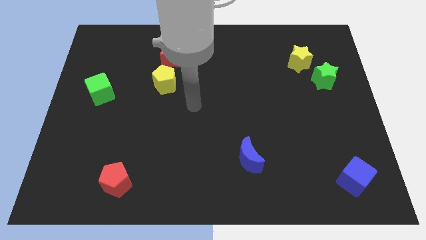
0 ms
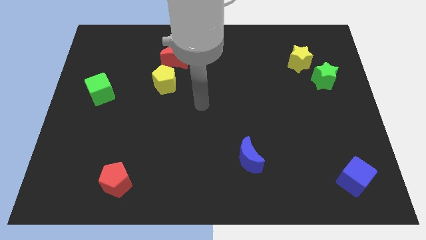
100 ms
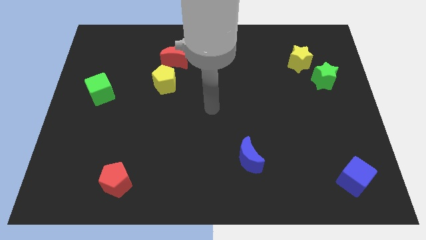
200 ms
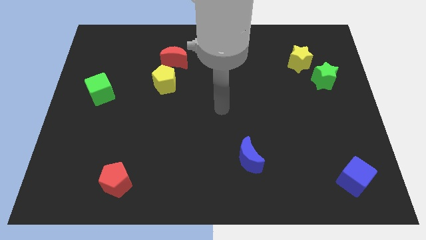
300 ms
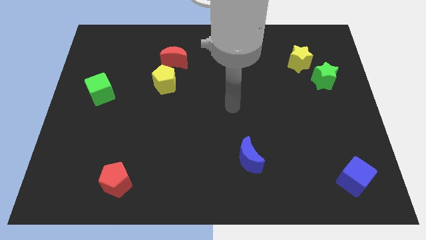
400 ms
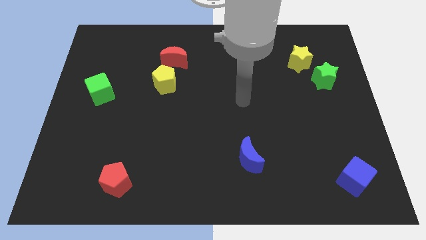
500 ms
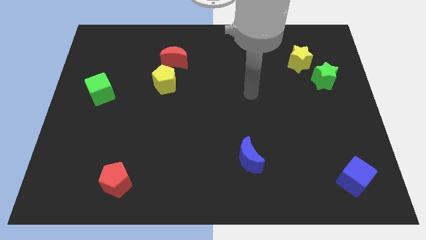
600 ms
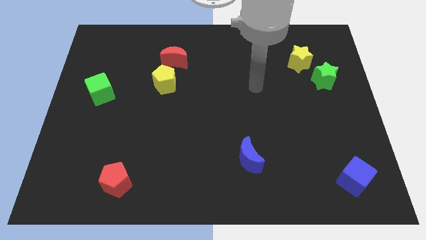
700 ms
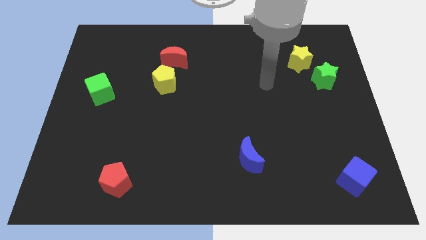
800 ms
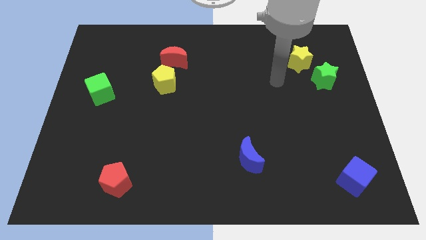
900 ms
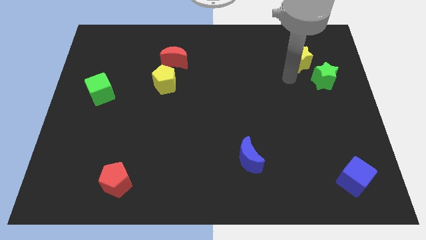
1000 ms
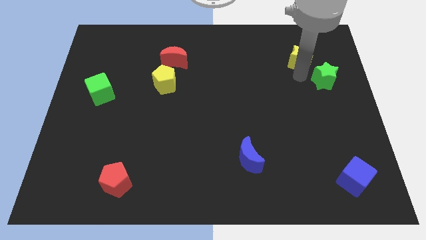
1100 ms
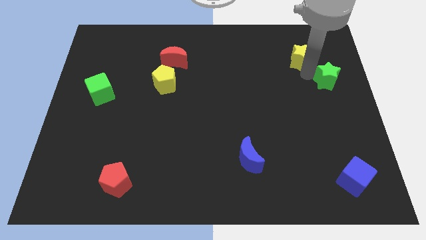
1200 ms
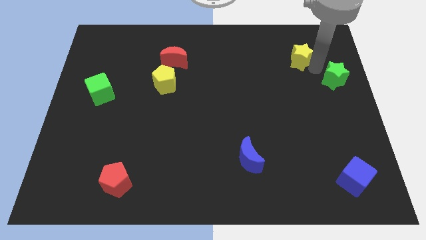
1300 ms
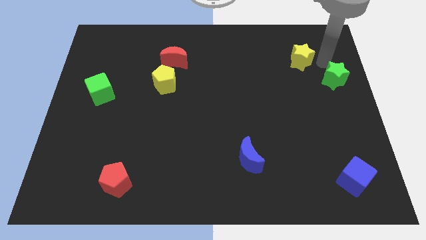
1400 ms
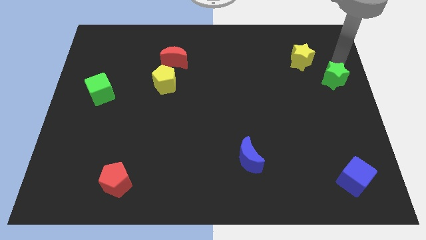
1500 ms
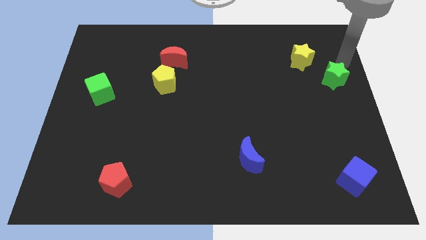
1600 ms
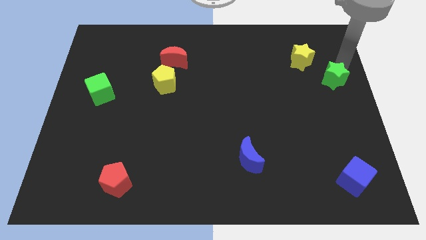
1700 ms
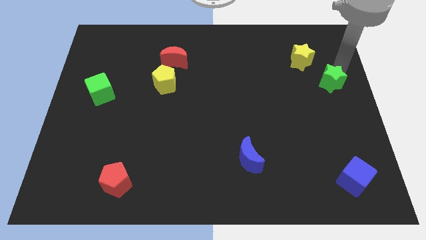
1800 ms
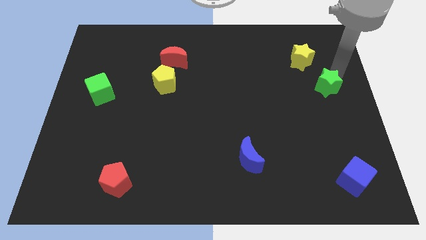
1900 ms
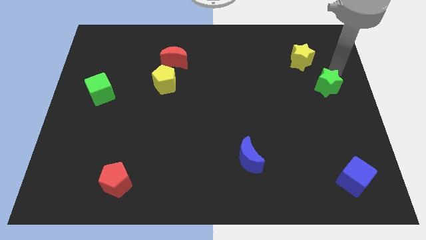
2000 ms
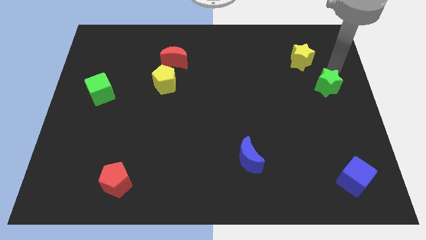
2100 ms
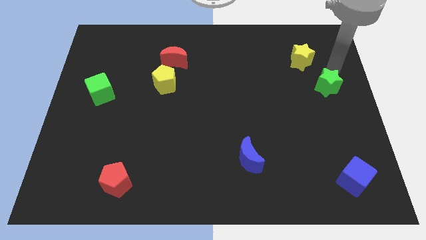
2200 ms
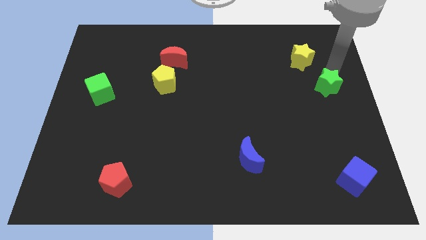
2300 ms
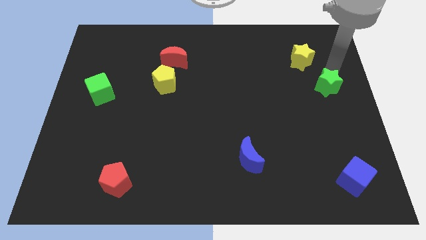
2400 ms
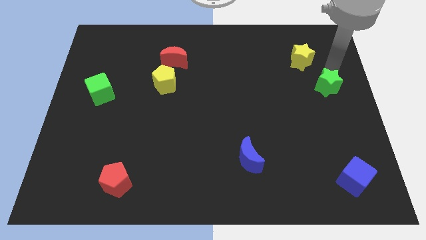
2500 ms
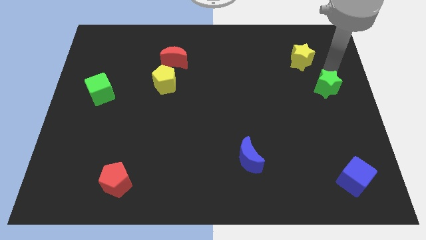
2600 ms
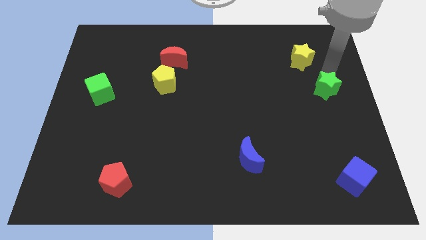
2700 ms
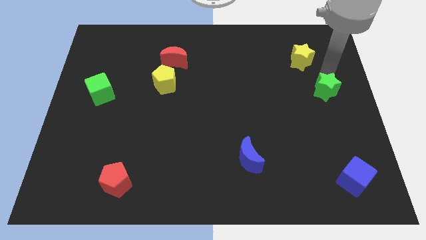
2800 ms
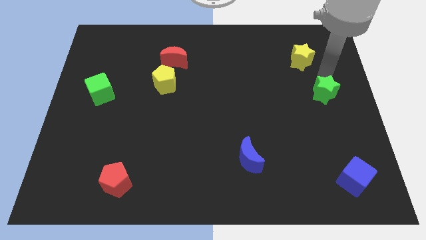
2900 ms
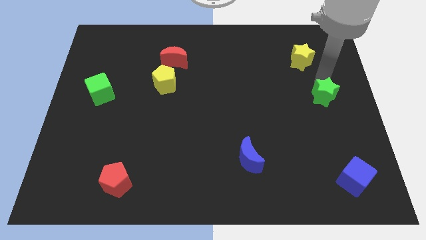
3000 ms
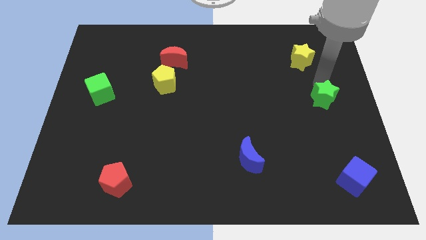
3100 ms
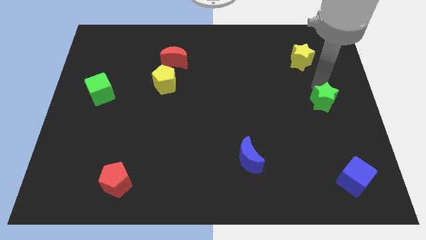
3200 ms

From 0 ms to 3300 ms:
push the green star down a little

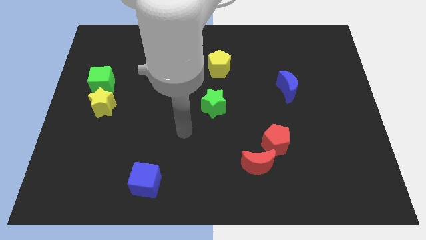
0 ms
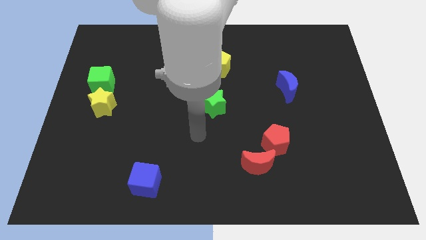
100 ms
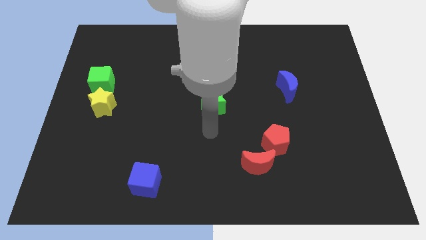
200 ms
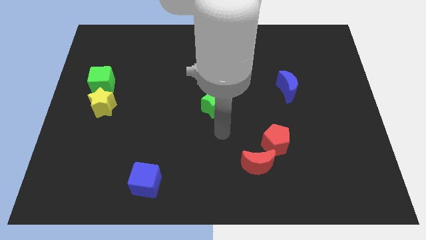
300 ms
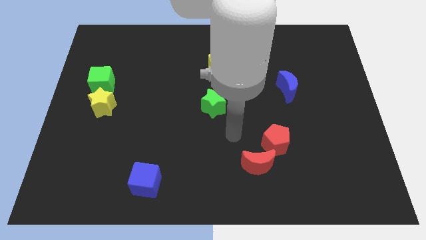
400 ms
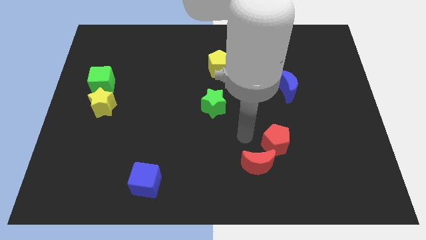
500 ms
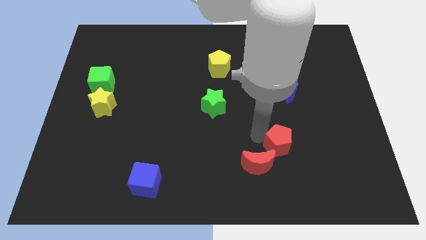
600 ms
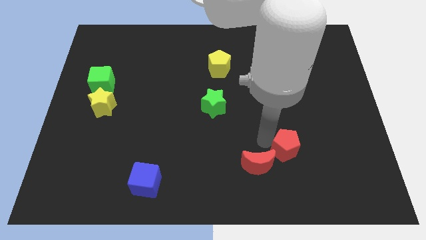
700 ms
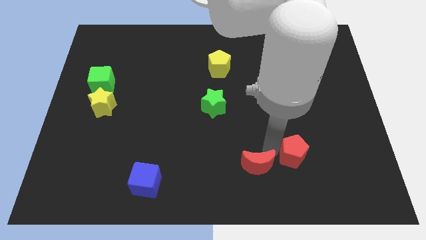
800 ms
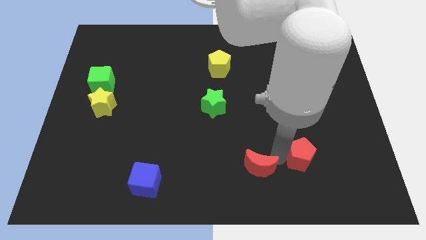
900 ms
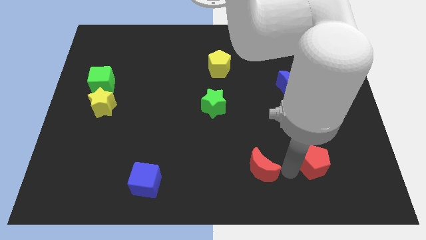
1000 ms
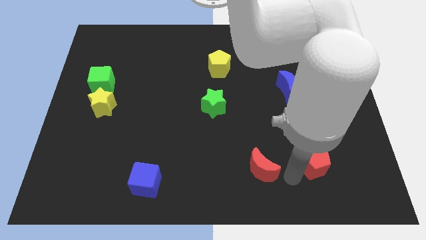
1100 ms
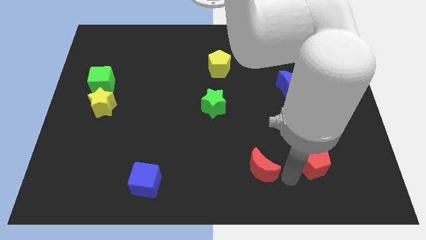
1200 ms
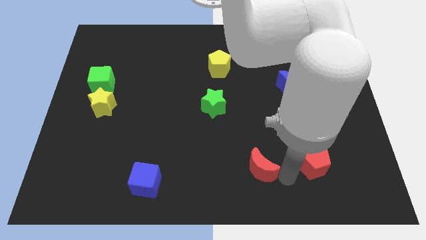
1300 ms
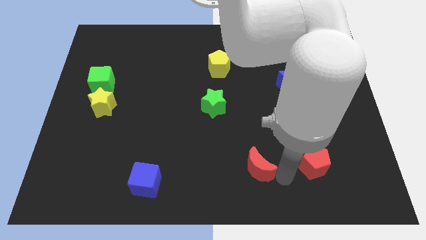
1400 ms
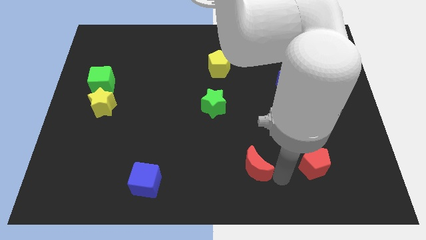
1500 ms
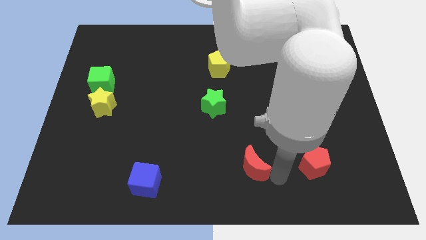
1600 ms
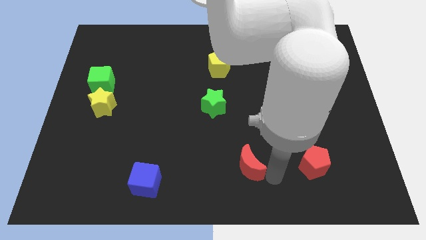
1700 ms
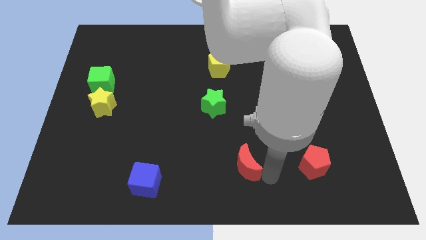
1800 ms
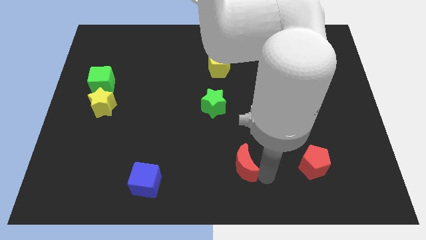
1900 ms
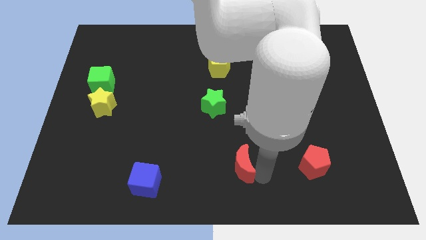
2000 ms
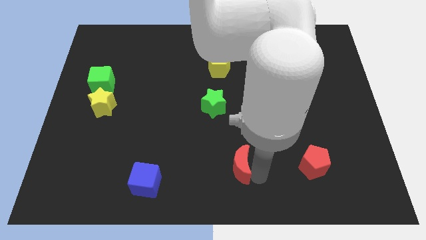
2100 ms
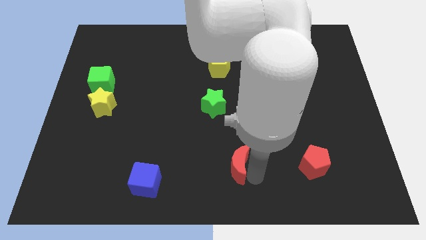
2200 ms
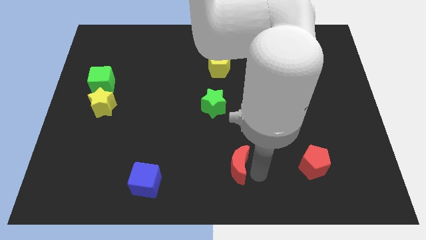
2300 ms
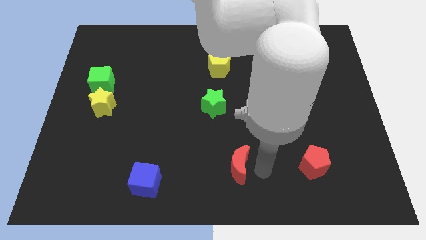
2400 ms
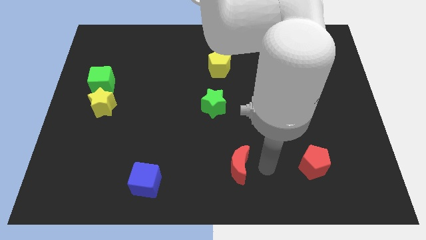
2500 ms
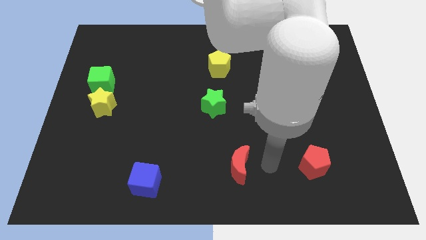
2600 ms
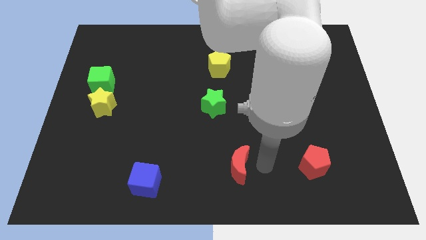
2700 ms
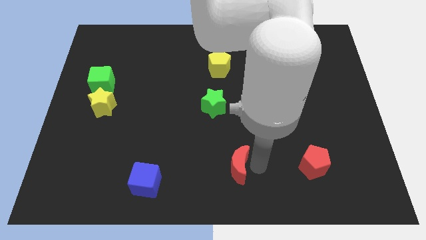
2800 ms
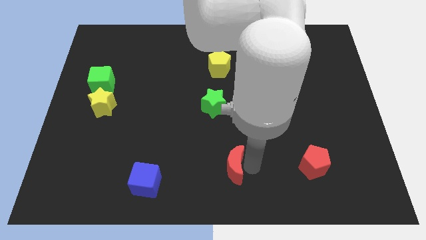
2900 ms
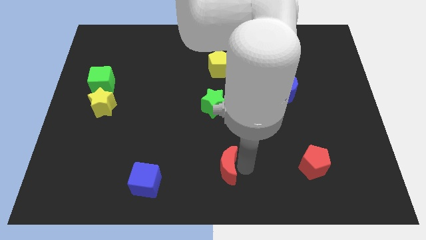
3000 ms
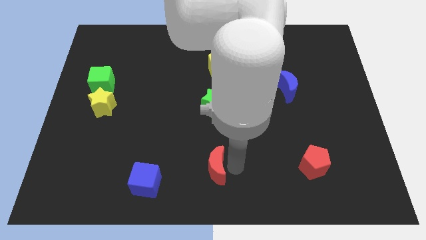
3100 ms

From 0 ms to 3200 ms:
slightly slide the red moon left

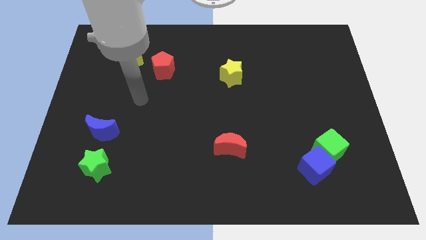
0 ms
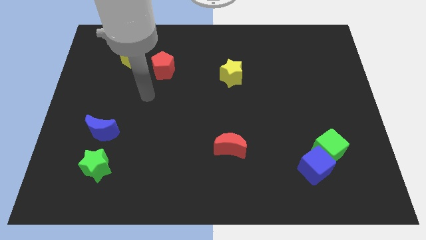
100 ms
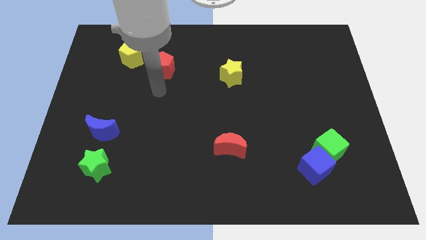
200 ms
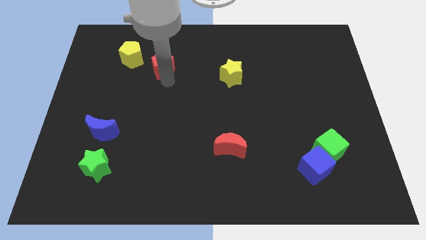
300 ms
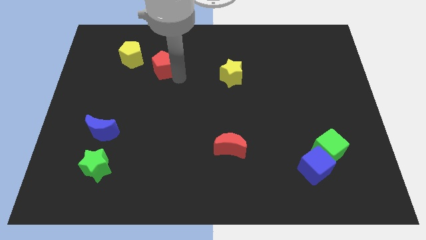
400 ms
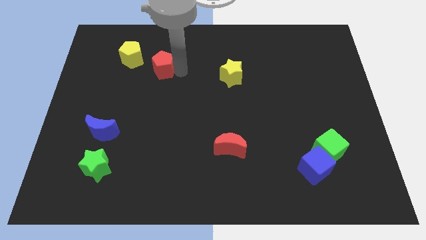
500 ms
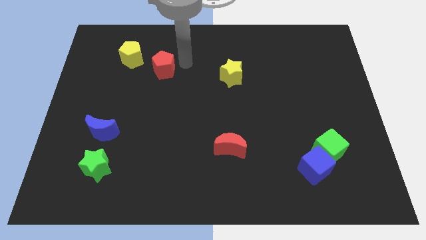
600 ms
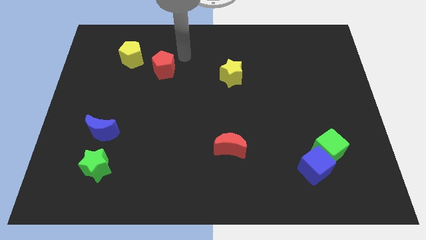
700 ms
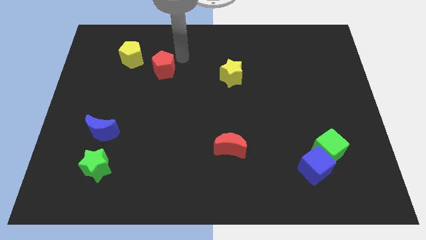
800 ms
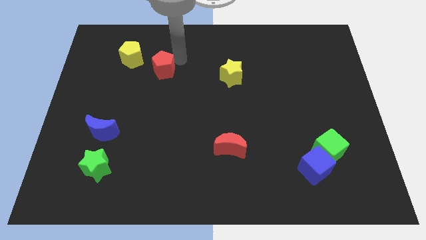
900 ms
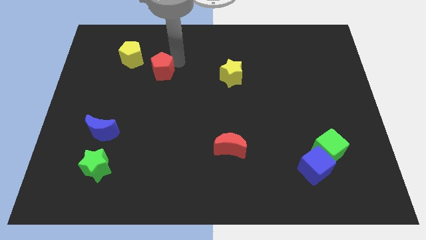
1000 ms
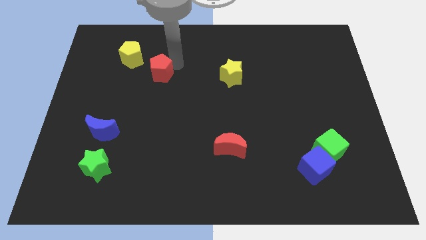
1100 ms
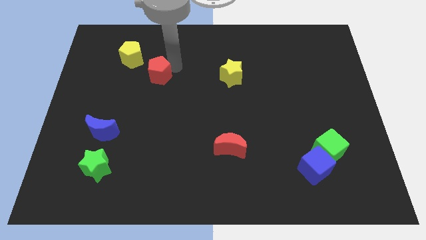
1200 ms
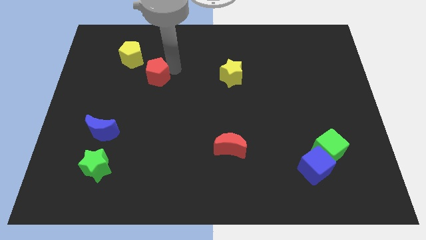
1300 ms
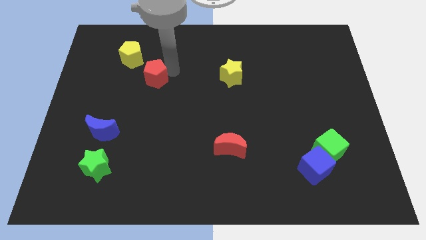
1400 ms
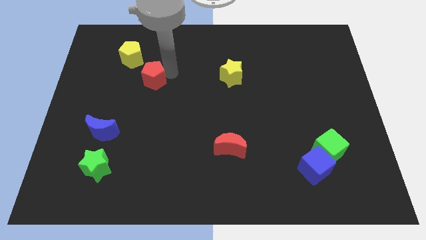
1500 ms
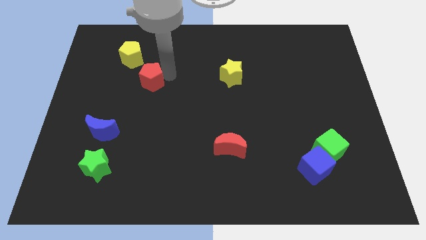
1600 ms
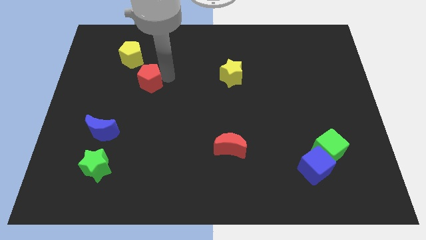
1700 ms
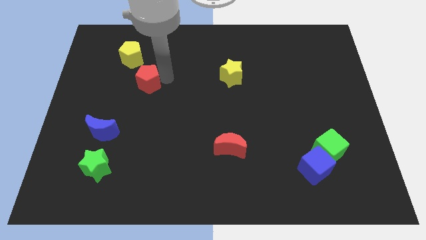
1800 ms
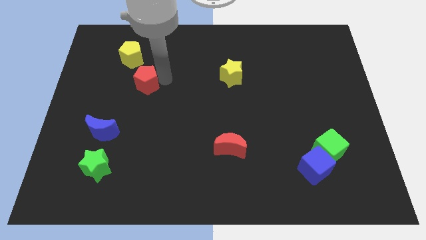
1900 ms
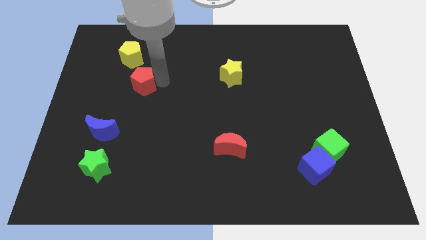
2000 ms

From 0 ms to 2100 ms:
push the red pentagon a little bit down and to the left diagonally
